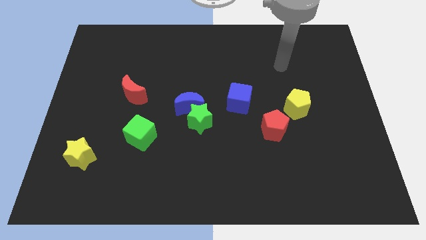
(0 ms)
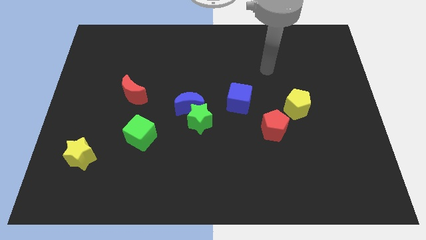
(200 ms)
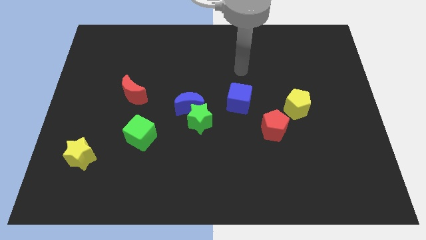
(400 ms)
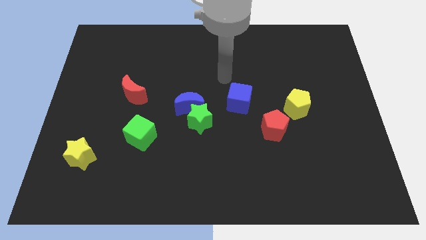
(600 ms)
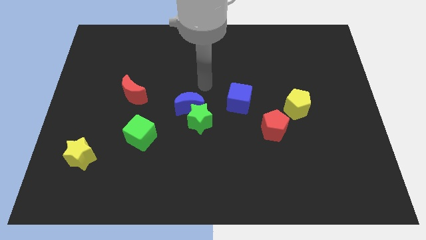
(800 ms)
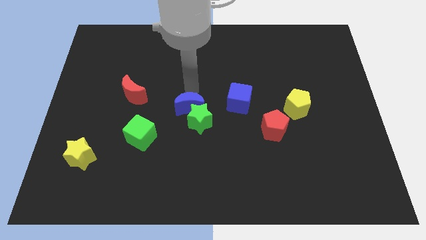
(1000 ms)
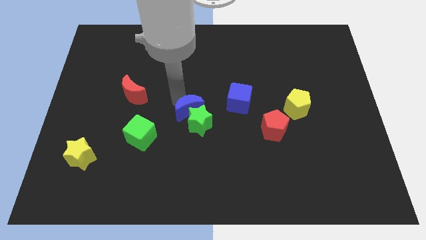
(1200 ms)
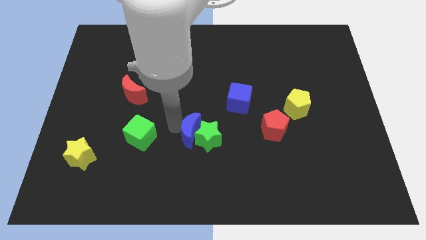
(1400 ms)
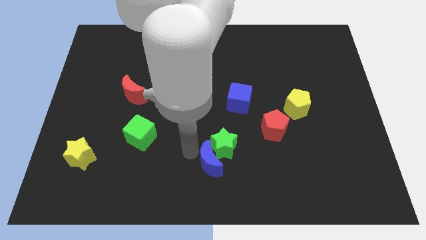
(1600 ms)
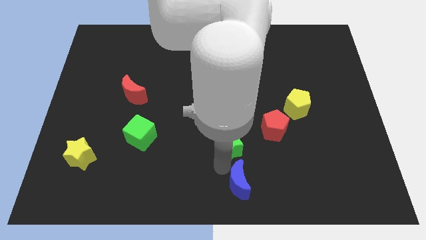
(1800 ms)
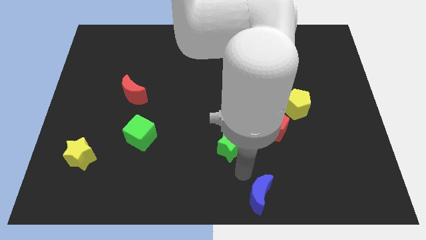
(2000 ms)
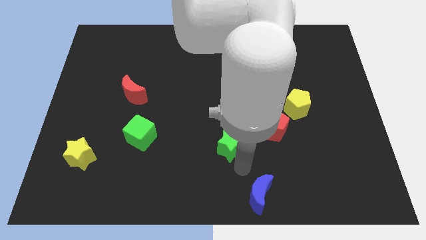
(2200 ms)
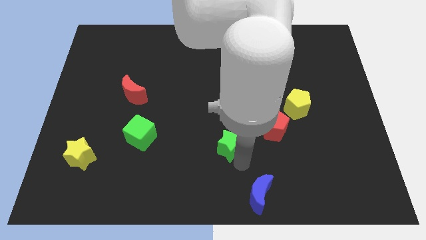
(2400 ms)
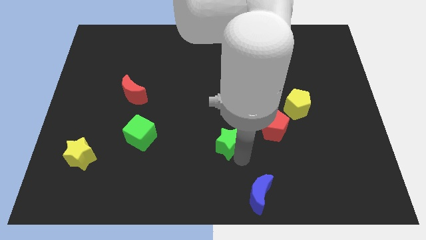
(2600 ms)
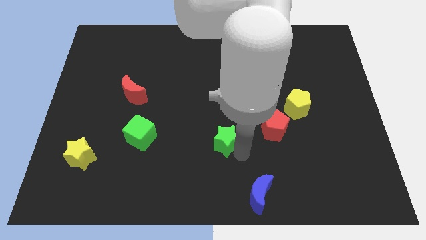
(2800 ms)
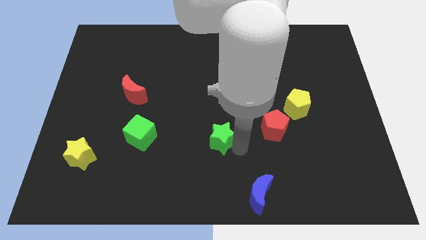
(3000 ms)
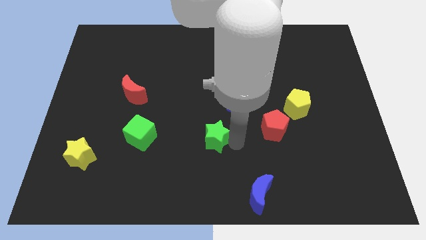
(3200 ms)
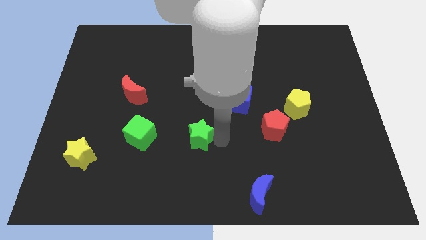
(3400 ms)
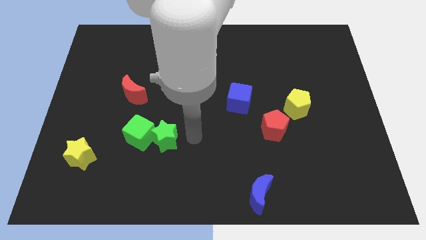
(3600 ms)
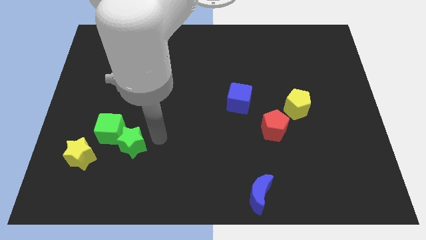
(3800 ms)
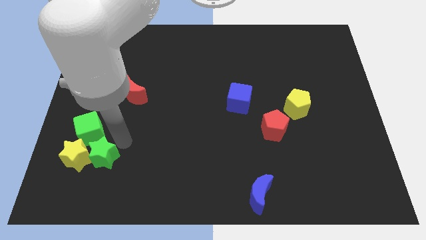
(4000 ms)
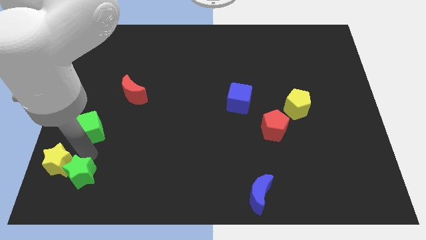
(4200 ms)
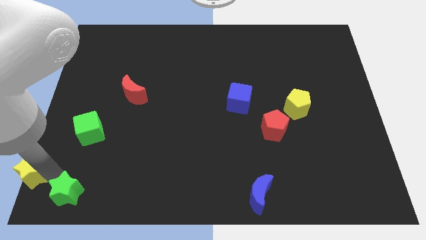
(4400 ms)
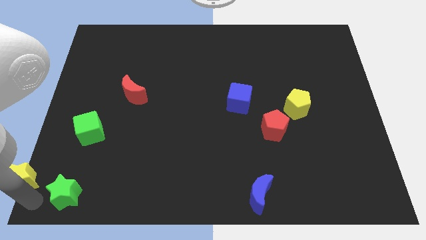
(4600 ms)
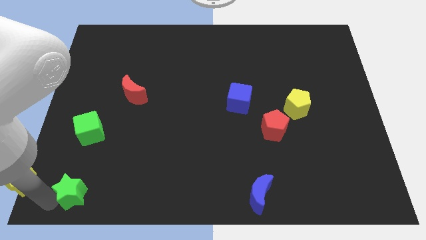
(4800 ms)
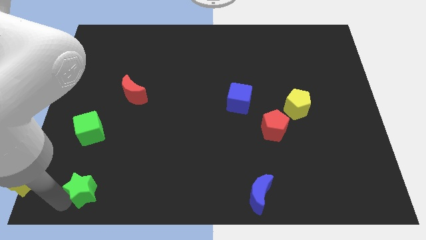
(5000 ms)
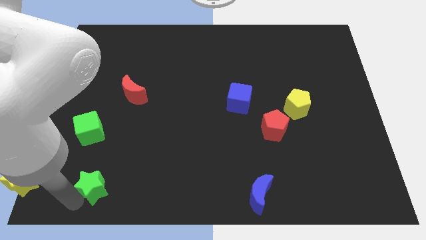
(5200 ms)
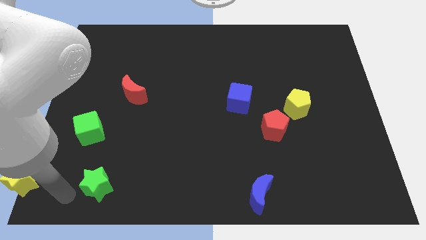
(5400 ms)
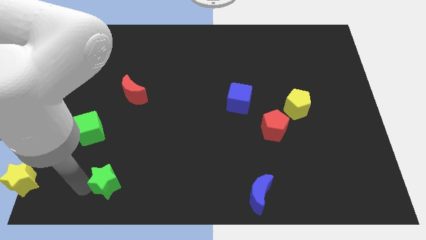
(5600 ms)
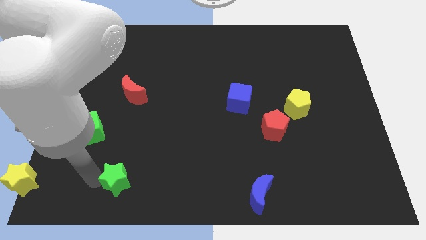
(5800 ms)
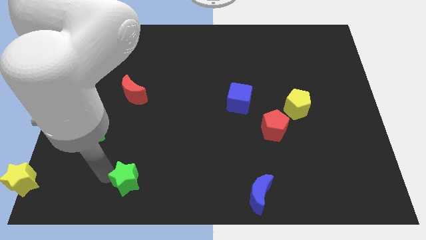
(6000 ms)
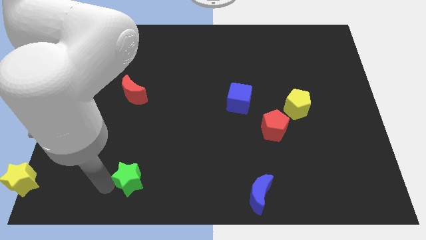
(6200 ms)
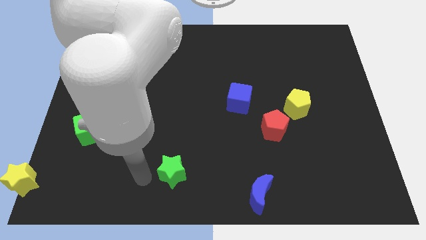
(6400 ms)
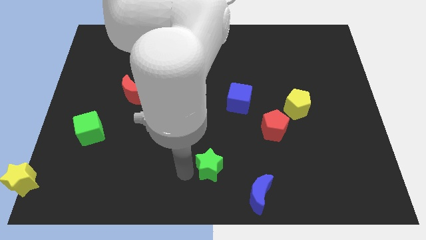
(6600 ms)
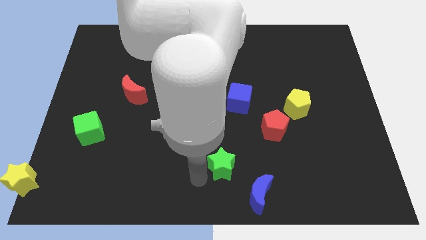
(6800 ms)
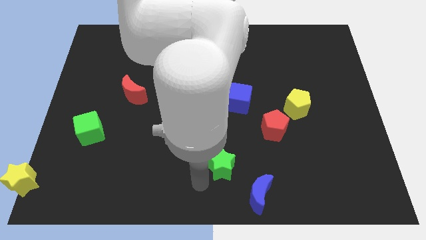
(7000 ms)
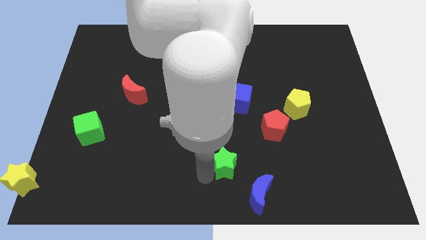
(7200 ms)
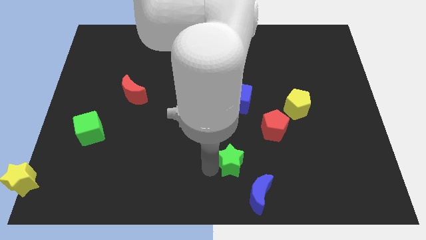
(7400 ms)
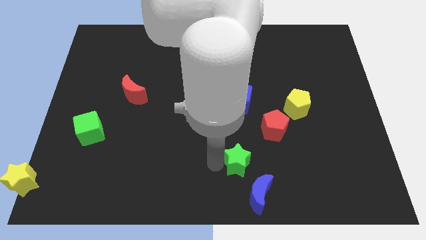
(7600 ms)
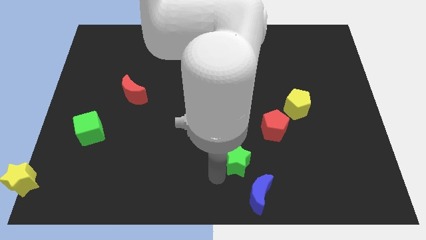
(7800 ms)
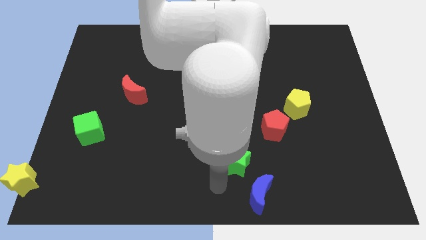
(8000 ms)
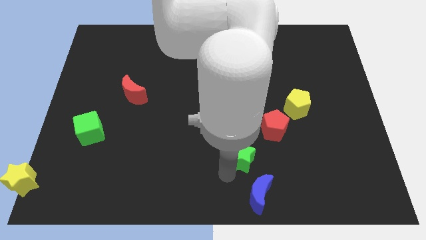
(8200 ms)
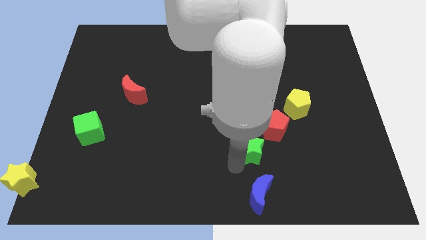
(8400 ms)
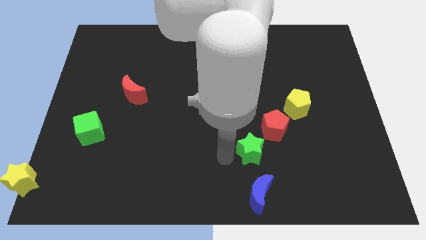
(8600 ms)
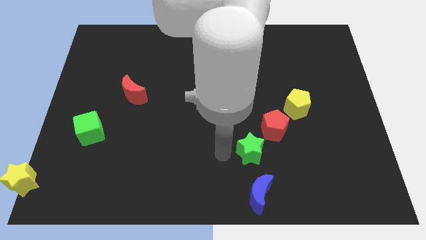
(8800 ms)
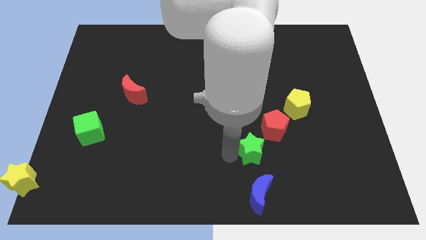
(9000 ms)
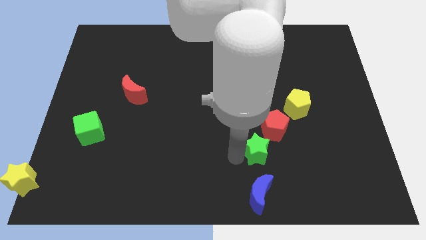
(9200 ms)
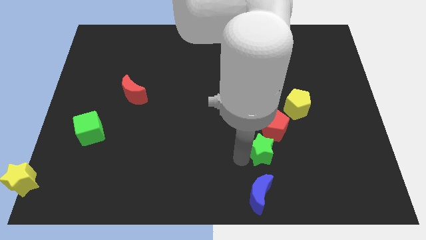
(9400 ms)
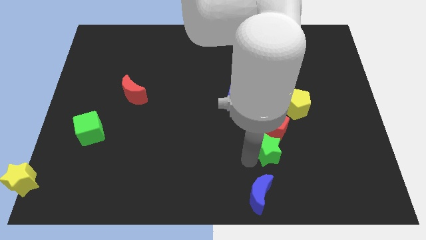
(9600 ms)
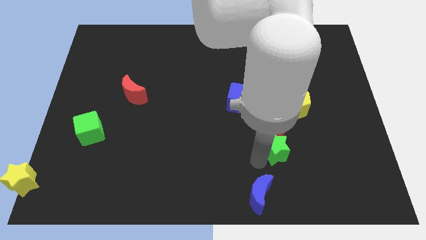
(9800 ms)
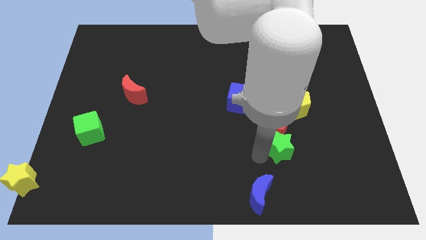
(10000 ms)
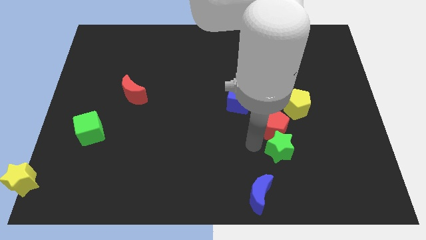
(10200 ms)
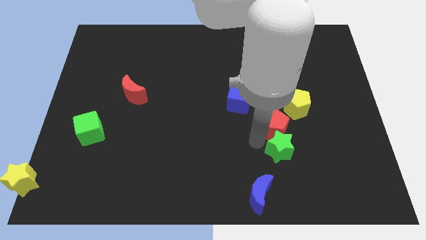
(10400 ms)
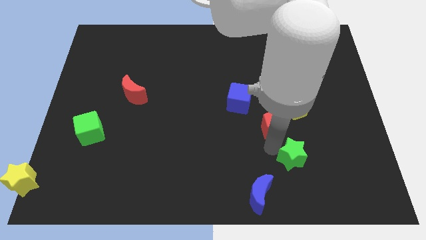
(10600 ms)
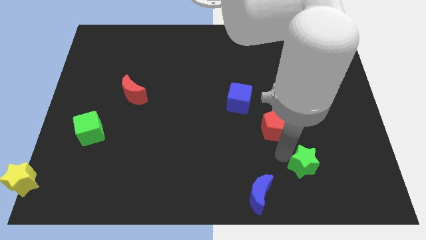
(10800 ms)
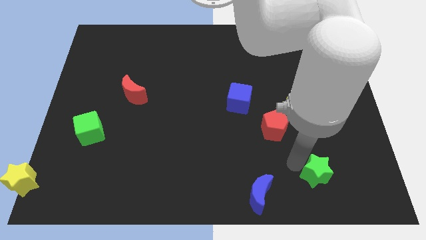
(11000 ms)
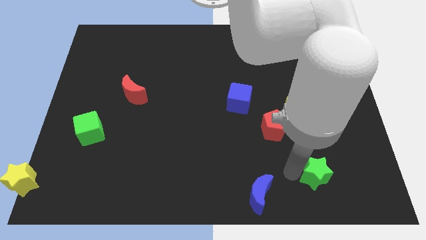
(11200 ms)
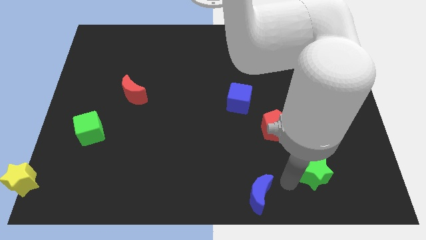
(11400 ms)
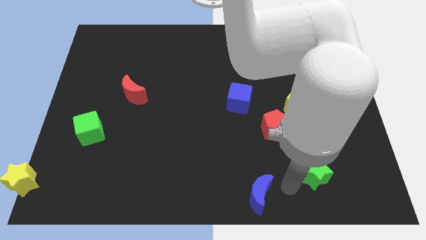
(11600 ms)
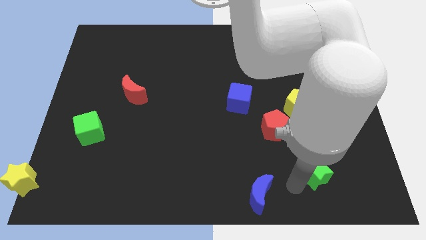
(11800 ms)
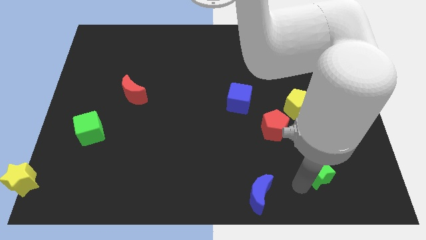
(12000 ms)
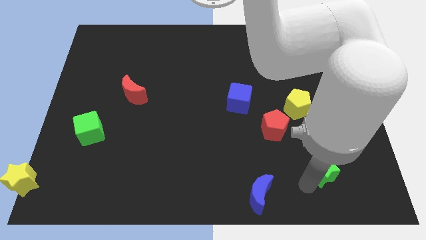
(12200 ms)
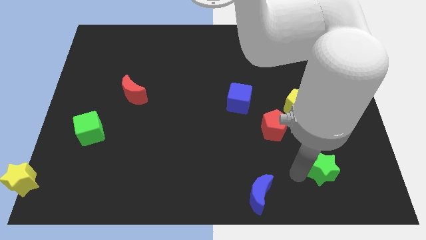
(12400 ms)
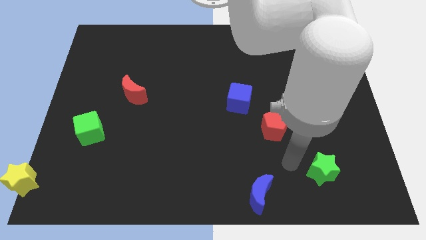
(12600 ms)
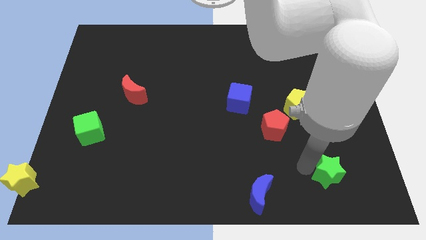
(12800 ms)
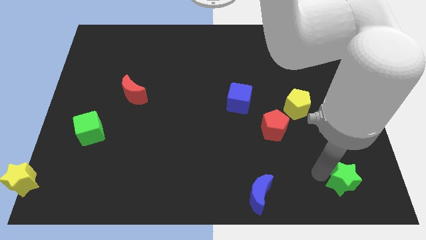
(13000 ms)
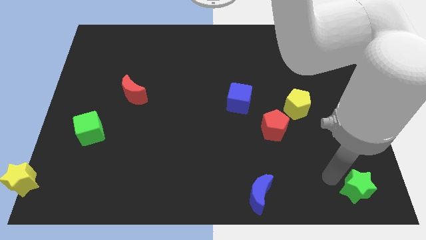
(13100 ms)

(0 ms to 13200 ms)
put the green star to the bottom right

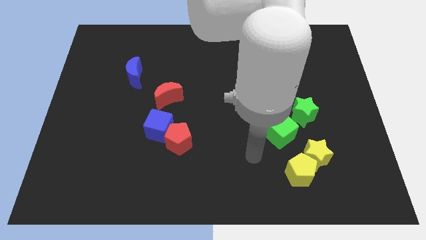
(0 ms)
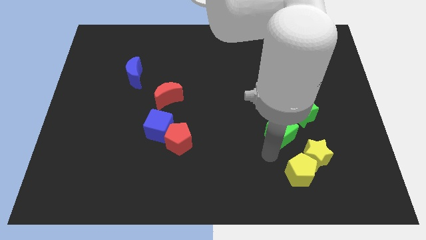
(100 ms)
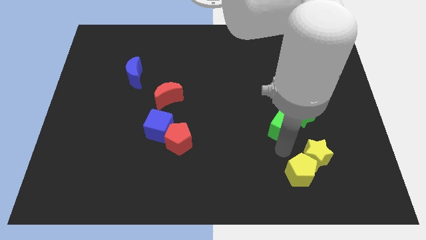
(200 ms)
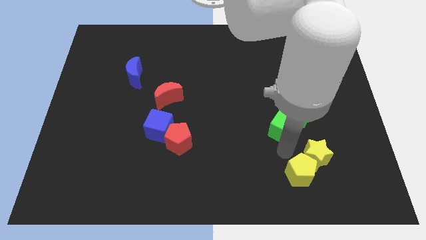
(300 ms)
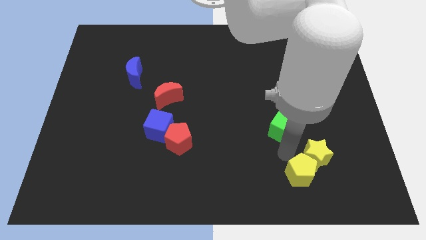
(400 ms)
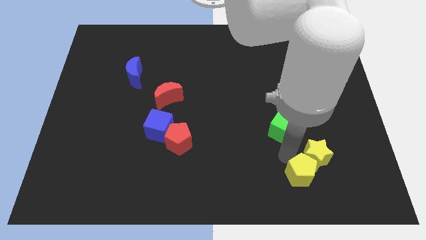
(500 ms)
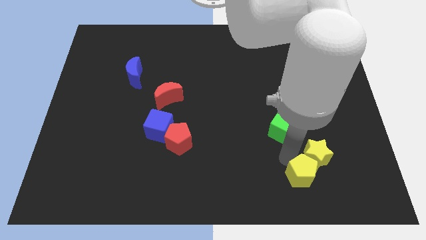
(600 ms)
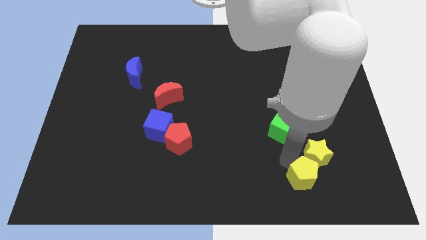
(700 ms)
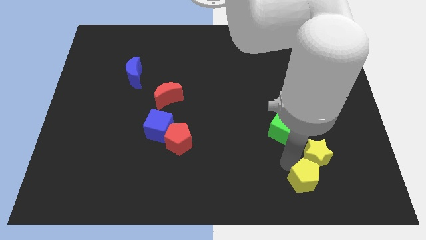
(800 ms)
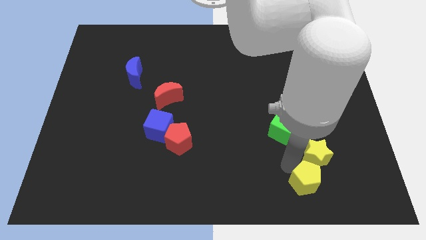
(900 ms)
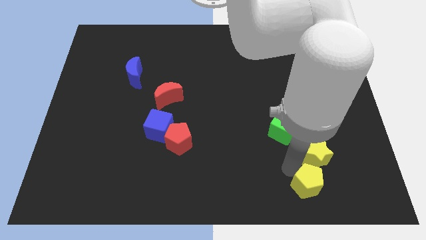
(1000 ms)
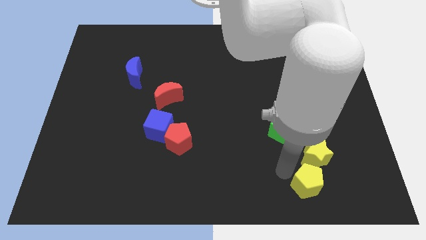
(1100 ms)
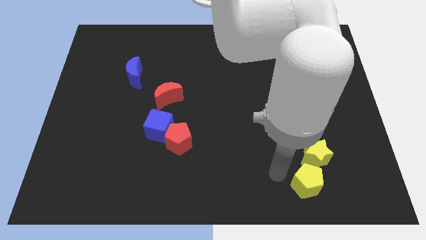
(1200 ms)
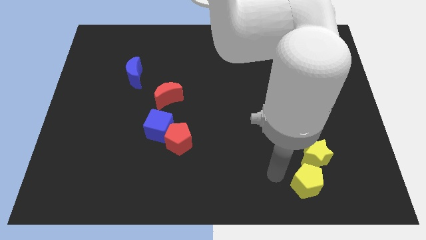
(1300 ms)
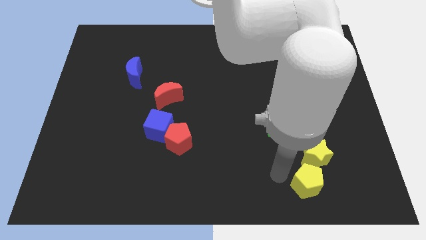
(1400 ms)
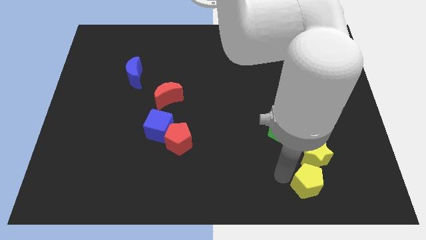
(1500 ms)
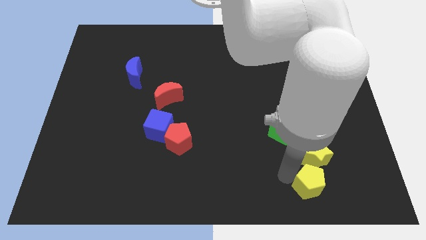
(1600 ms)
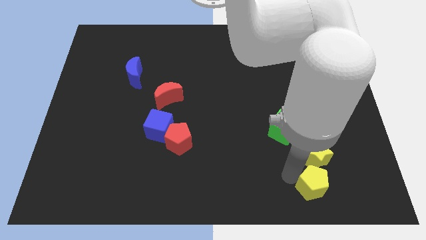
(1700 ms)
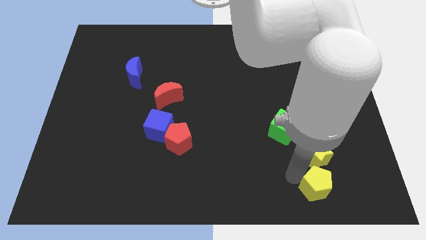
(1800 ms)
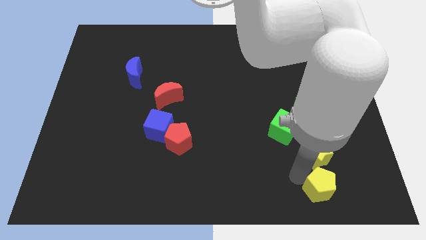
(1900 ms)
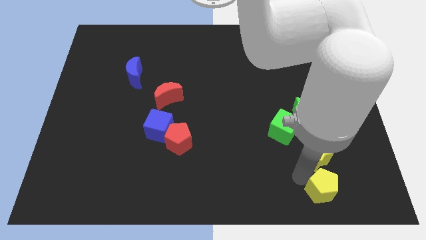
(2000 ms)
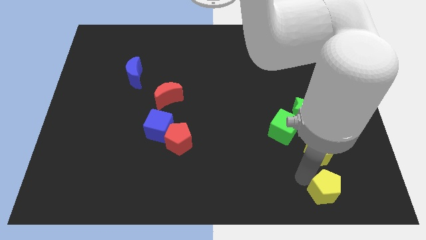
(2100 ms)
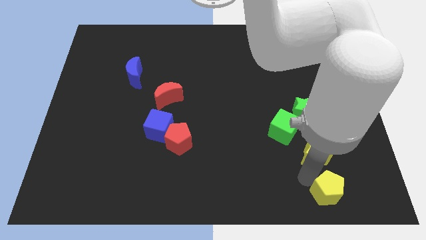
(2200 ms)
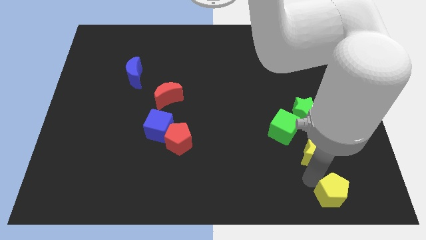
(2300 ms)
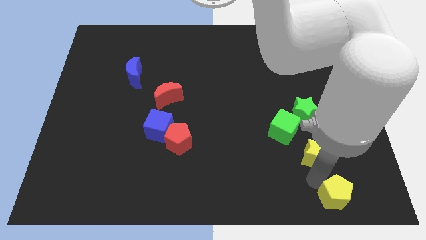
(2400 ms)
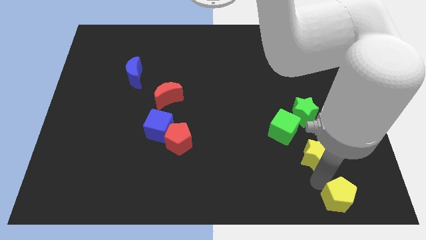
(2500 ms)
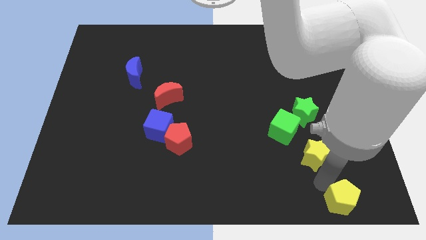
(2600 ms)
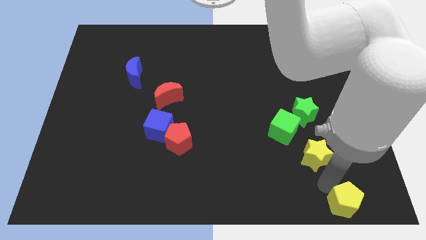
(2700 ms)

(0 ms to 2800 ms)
put the yellow pentagon to the bottom right
